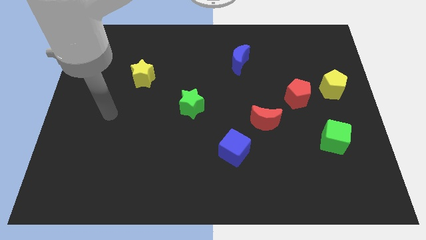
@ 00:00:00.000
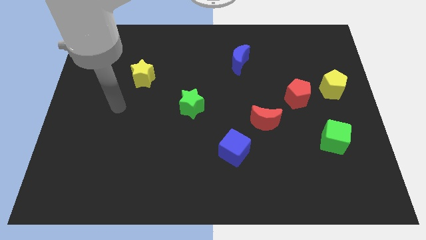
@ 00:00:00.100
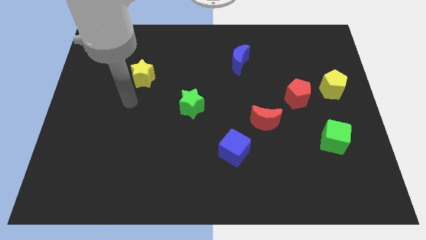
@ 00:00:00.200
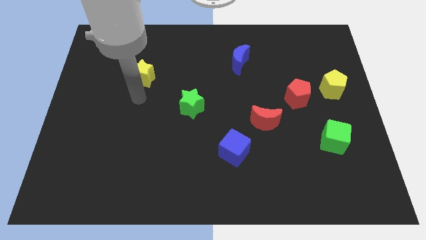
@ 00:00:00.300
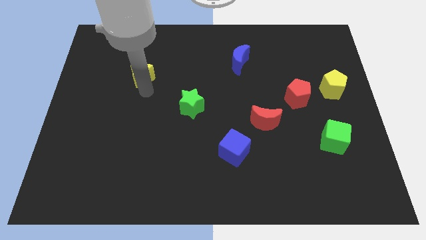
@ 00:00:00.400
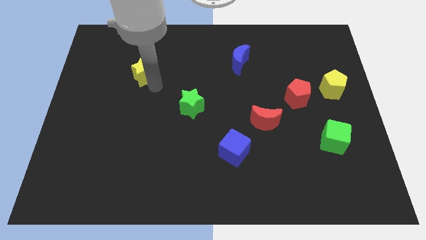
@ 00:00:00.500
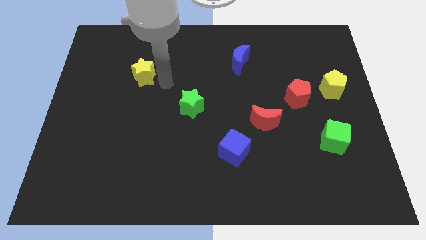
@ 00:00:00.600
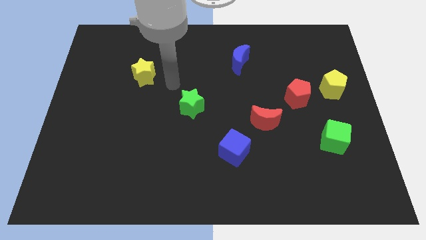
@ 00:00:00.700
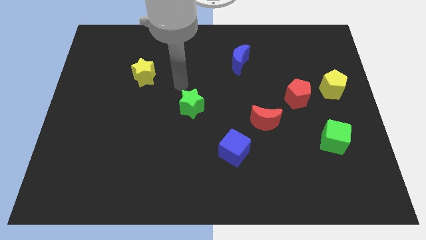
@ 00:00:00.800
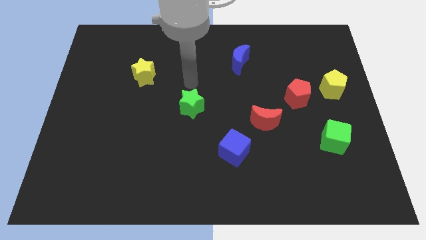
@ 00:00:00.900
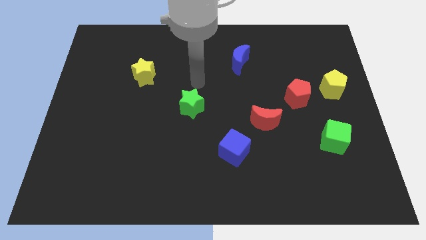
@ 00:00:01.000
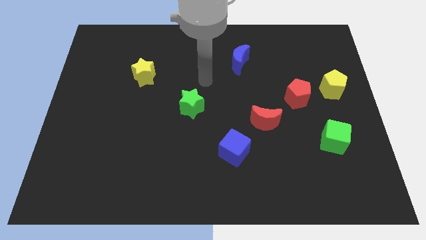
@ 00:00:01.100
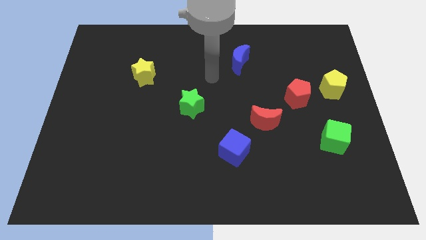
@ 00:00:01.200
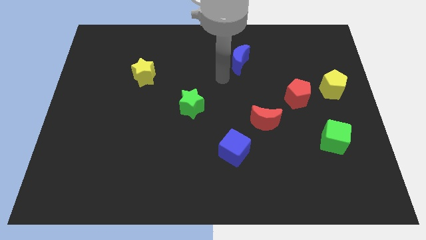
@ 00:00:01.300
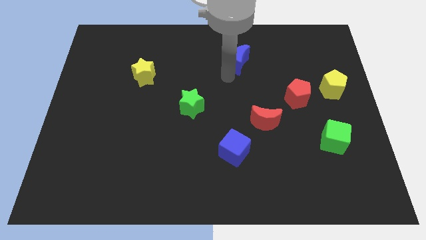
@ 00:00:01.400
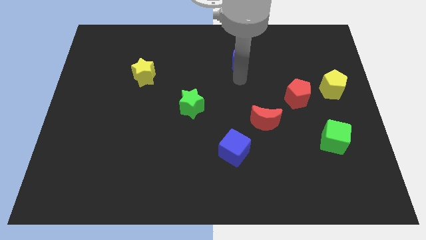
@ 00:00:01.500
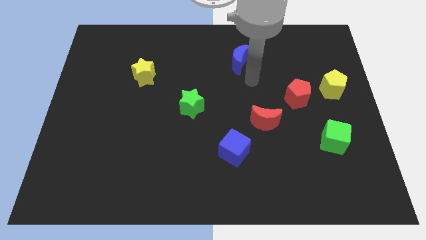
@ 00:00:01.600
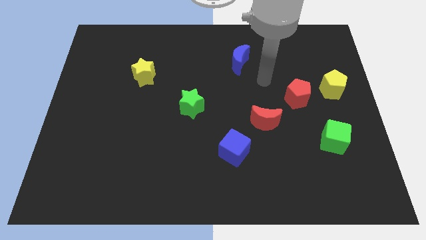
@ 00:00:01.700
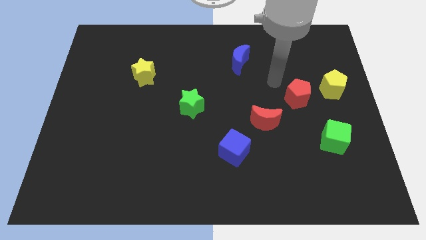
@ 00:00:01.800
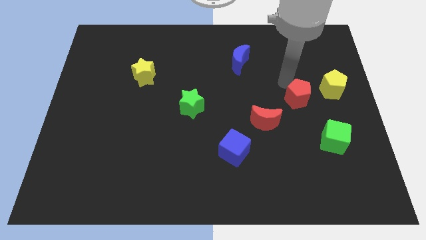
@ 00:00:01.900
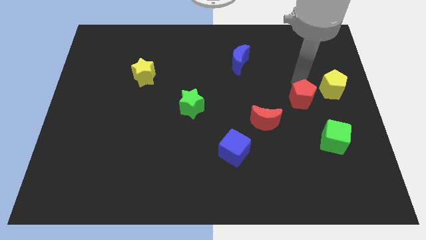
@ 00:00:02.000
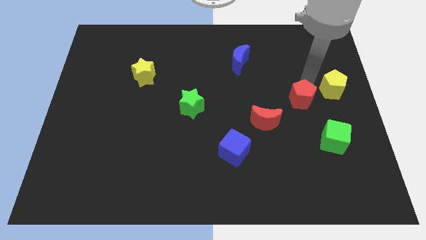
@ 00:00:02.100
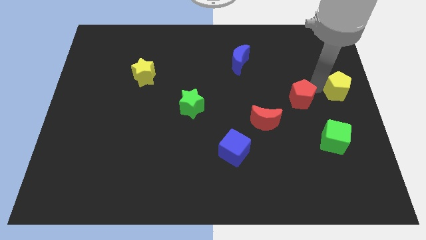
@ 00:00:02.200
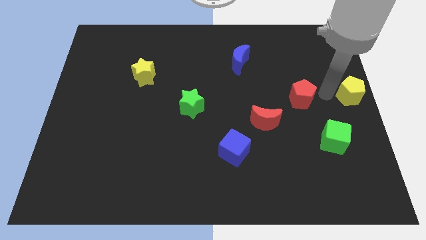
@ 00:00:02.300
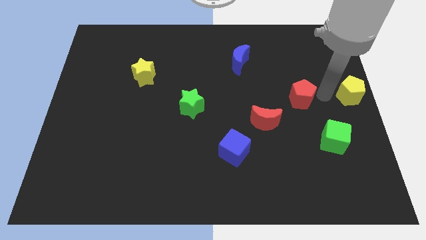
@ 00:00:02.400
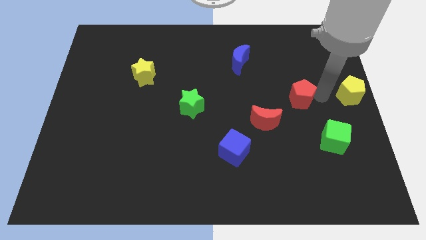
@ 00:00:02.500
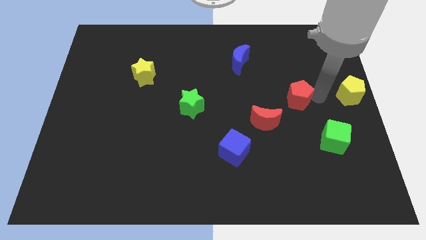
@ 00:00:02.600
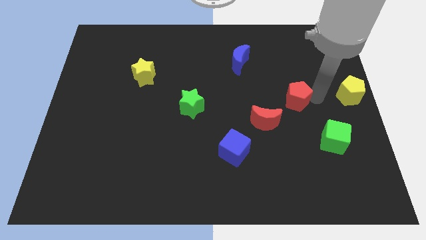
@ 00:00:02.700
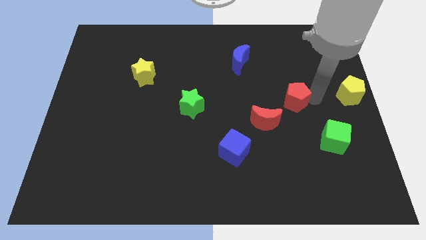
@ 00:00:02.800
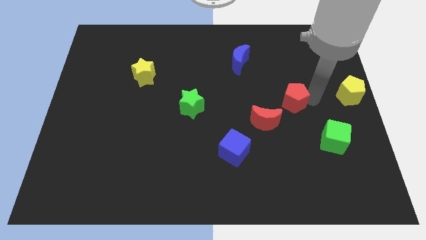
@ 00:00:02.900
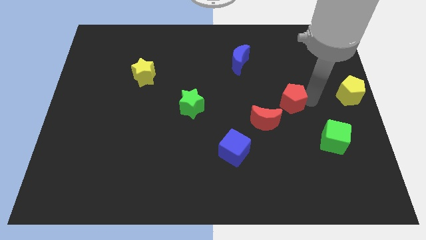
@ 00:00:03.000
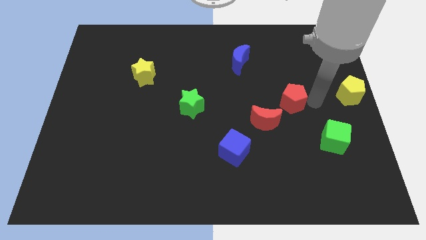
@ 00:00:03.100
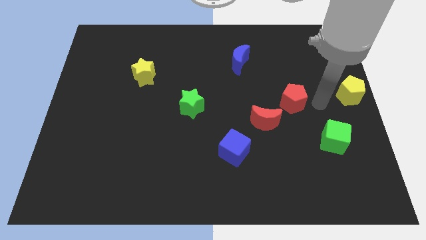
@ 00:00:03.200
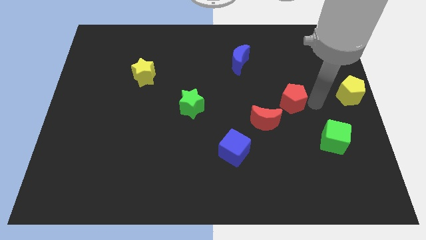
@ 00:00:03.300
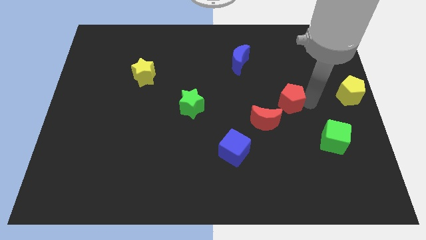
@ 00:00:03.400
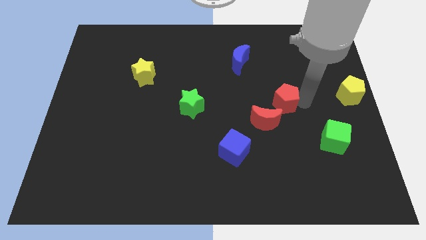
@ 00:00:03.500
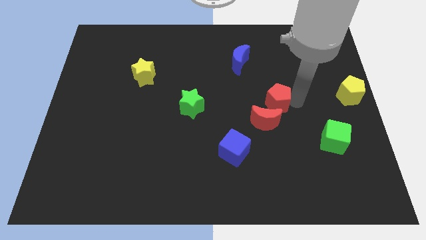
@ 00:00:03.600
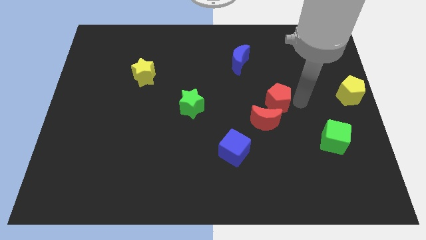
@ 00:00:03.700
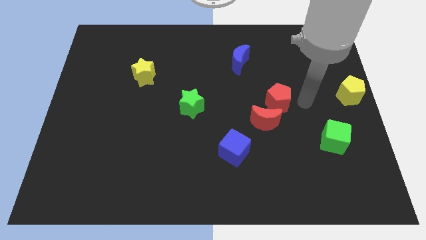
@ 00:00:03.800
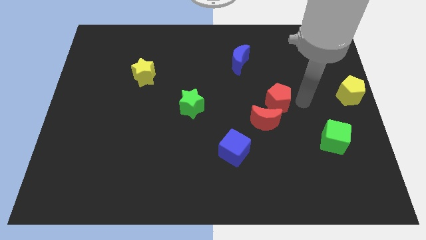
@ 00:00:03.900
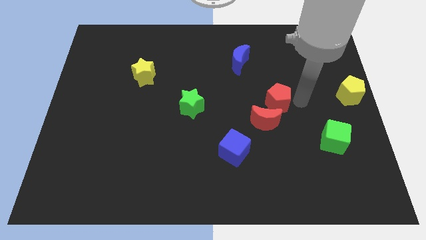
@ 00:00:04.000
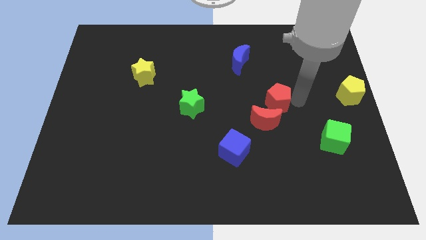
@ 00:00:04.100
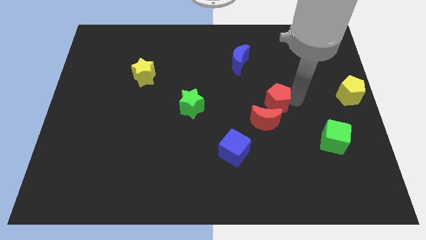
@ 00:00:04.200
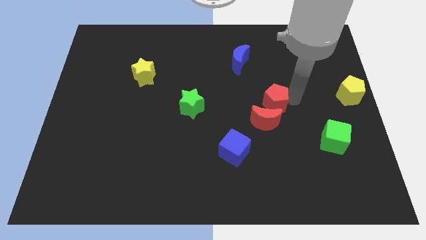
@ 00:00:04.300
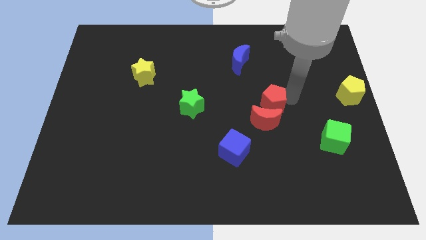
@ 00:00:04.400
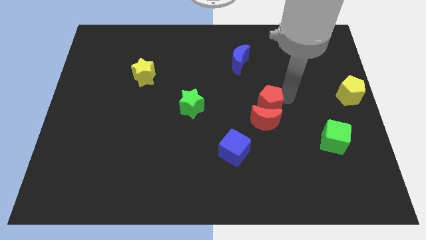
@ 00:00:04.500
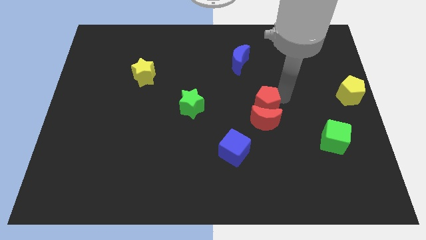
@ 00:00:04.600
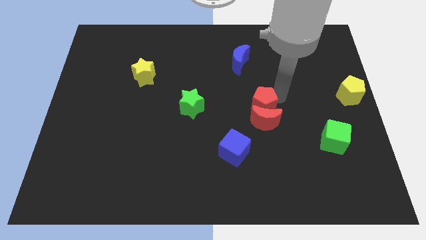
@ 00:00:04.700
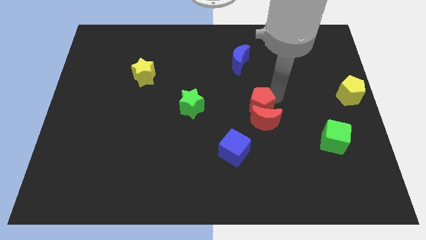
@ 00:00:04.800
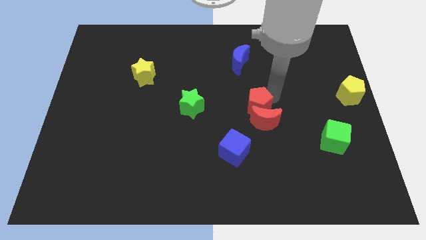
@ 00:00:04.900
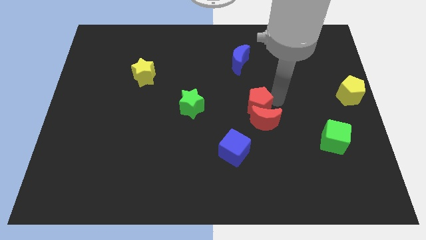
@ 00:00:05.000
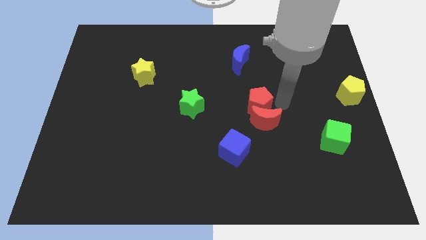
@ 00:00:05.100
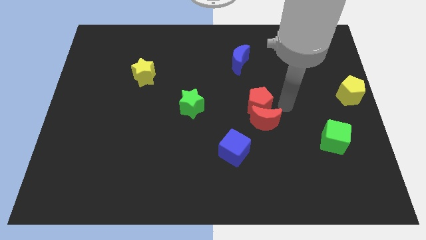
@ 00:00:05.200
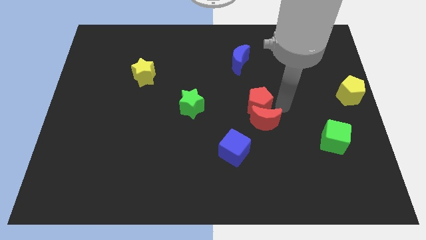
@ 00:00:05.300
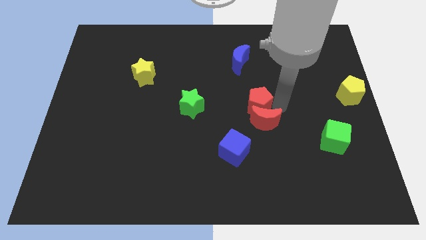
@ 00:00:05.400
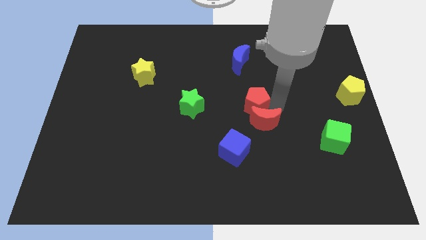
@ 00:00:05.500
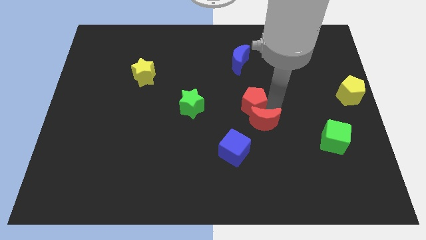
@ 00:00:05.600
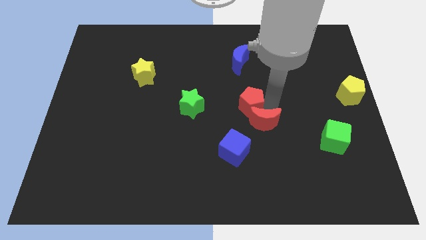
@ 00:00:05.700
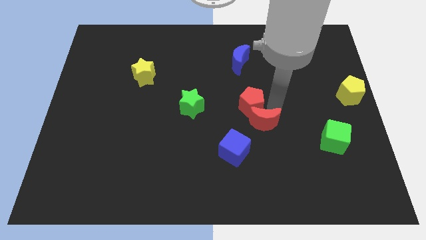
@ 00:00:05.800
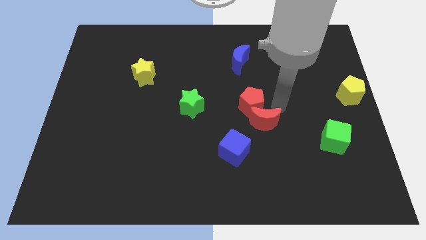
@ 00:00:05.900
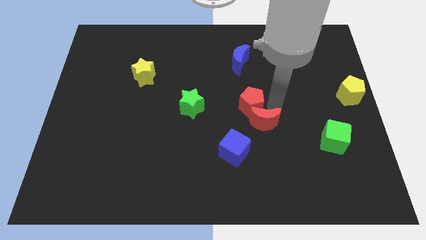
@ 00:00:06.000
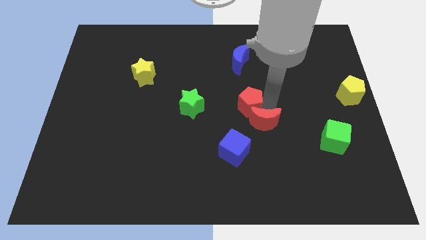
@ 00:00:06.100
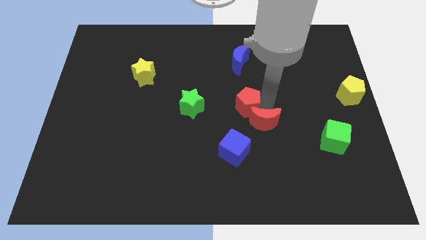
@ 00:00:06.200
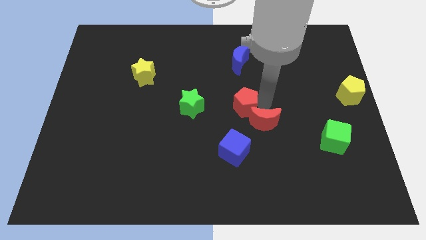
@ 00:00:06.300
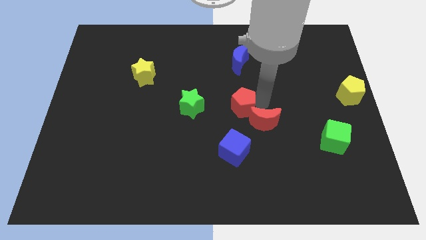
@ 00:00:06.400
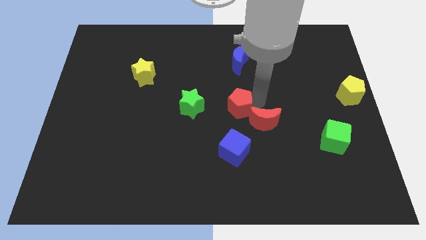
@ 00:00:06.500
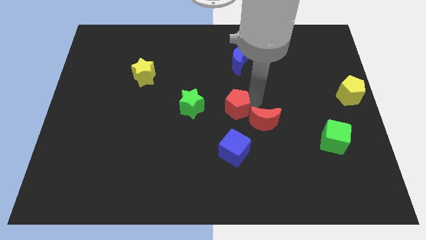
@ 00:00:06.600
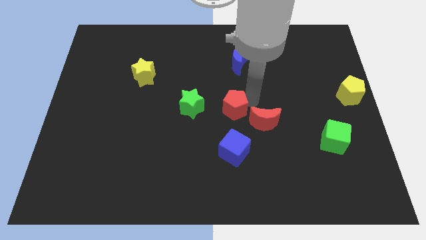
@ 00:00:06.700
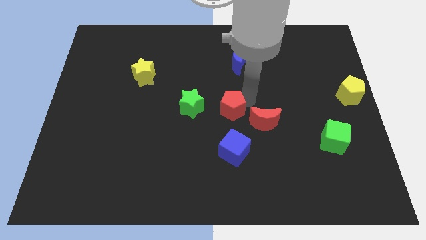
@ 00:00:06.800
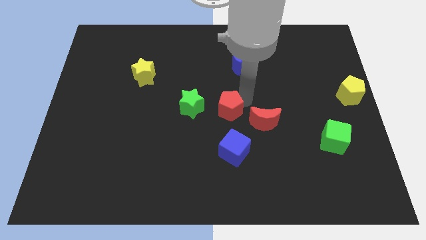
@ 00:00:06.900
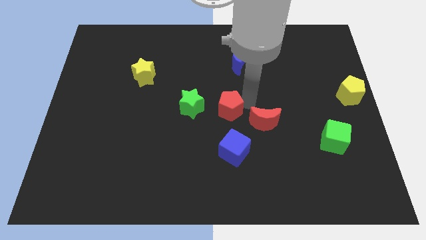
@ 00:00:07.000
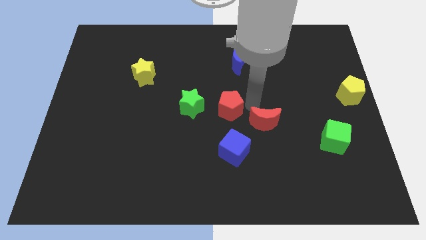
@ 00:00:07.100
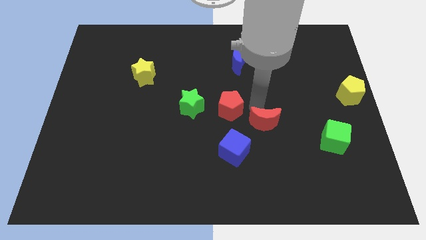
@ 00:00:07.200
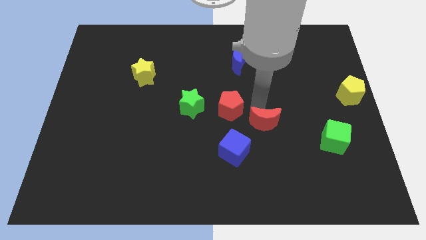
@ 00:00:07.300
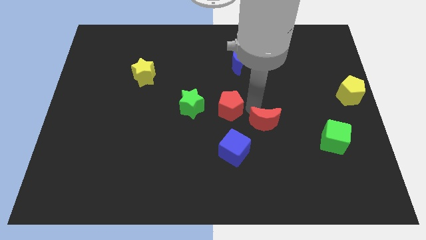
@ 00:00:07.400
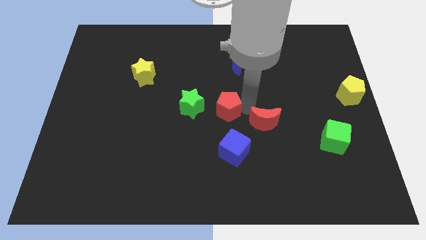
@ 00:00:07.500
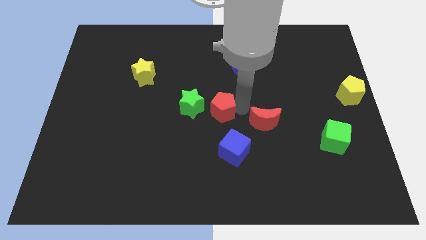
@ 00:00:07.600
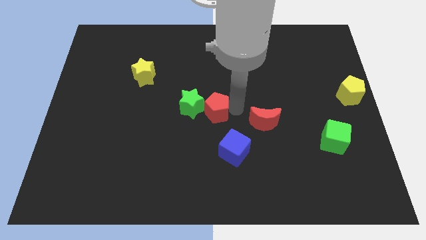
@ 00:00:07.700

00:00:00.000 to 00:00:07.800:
move the red pentagon next to the green star
